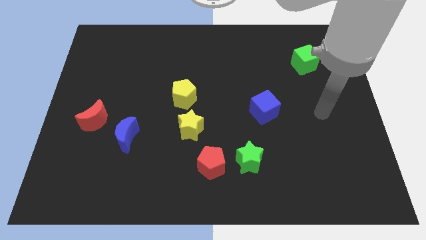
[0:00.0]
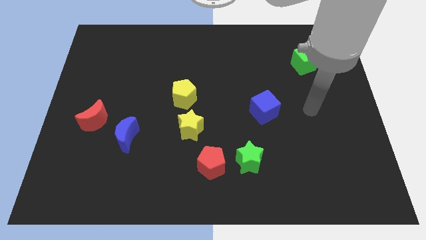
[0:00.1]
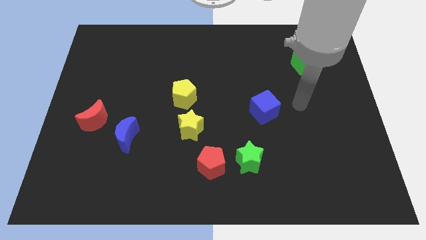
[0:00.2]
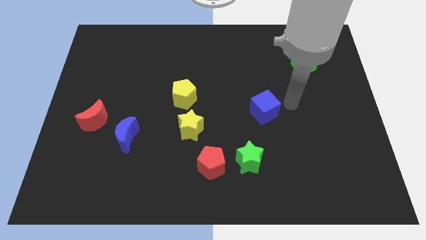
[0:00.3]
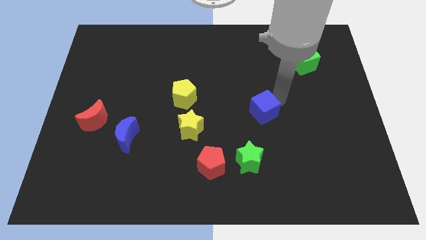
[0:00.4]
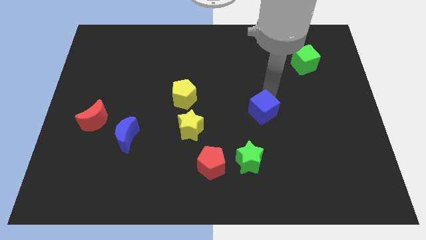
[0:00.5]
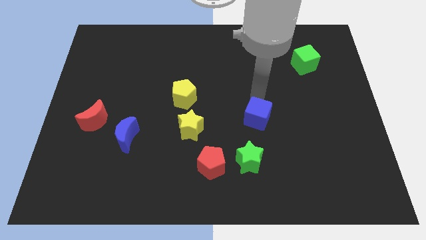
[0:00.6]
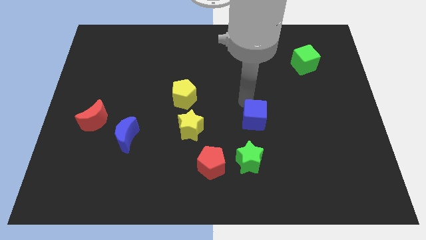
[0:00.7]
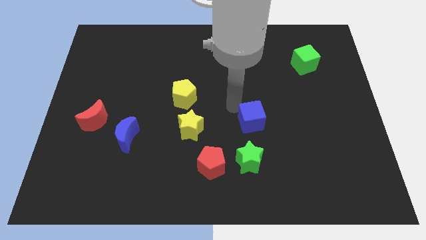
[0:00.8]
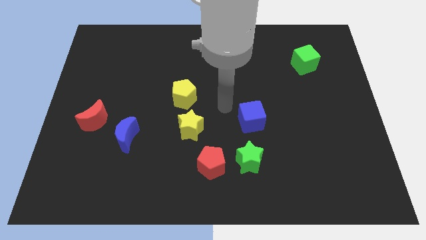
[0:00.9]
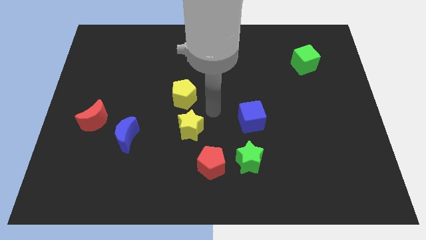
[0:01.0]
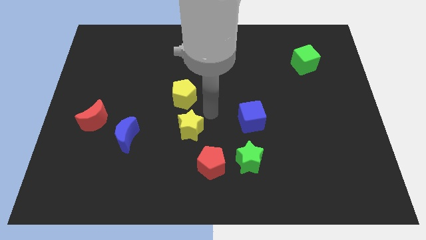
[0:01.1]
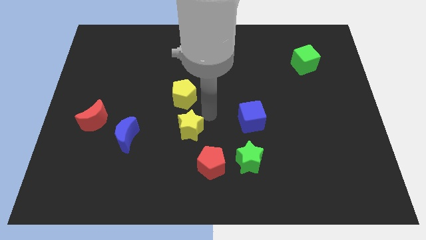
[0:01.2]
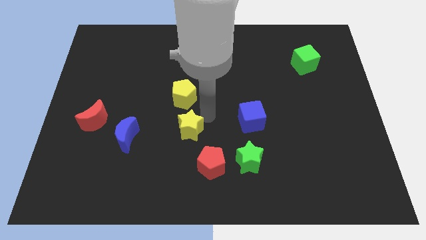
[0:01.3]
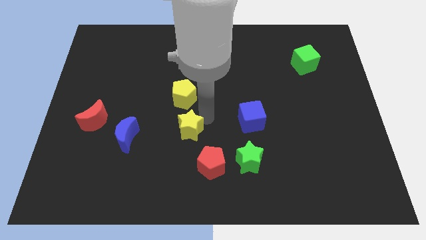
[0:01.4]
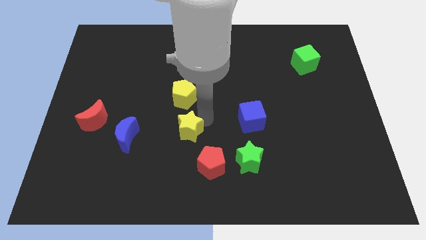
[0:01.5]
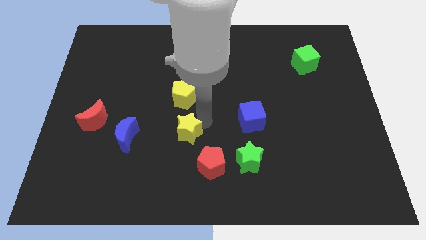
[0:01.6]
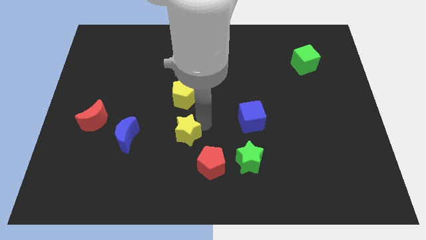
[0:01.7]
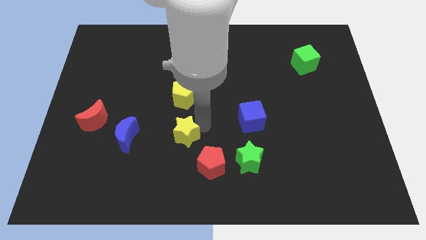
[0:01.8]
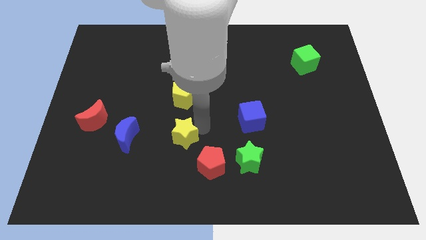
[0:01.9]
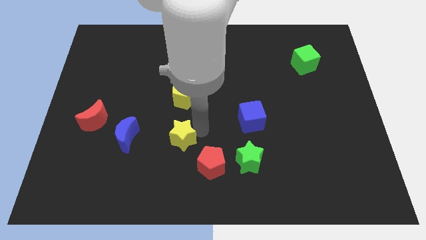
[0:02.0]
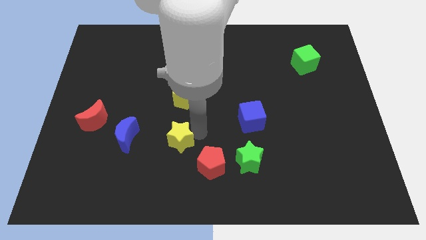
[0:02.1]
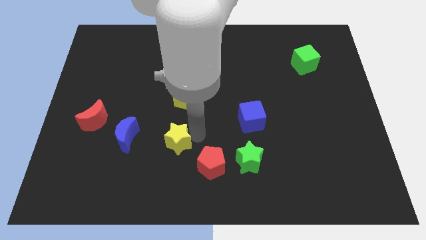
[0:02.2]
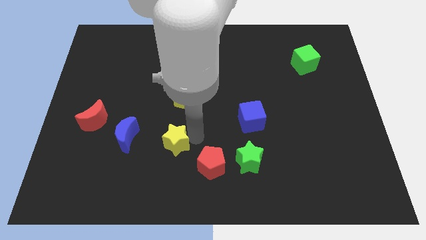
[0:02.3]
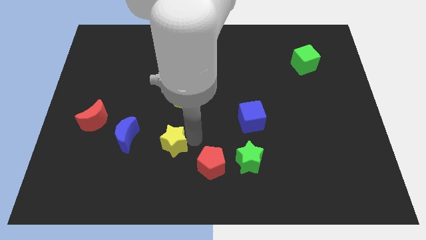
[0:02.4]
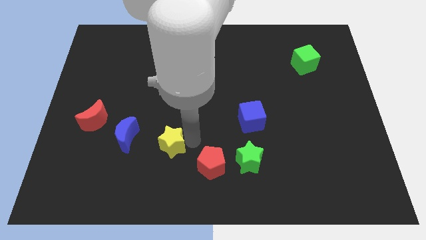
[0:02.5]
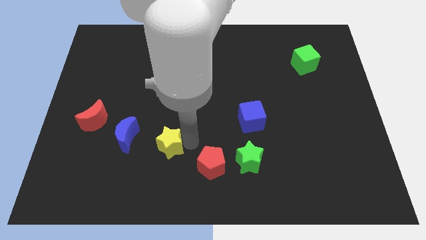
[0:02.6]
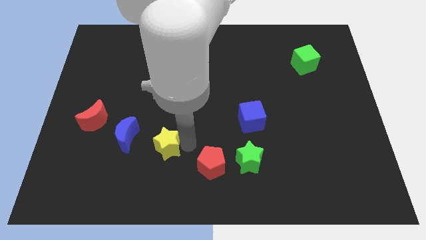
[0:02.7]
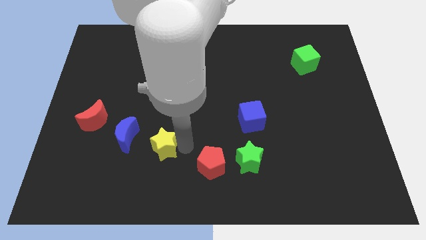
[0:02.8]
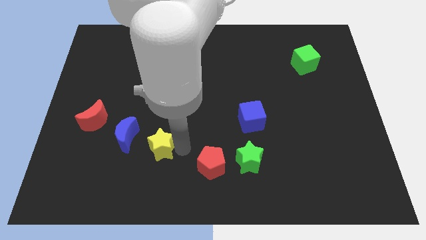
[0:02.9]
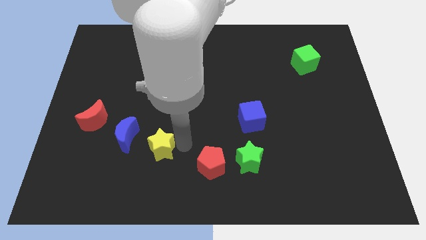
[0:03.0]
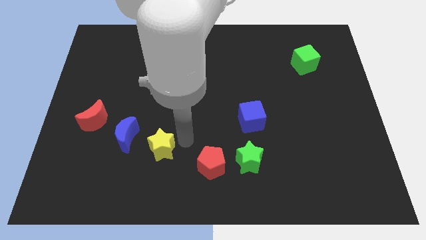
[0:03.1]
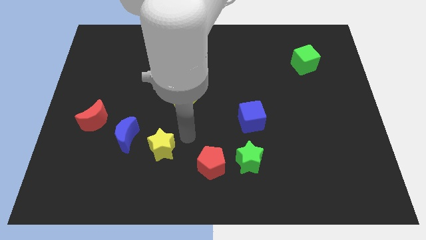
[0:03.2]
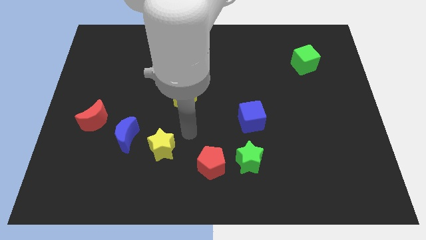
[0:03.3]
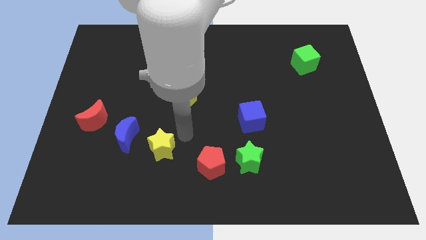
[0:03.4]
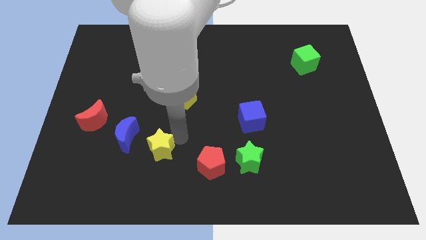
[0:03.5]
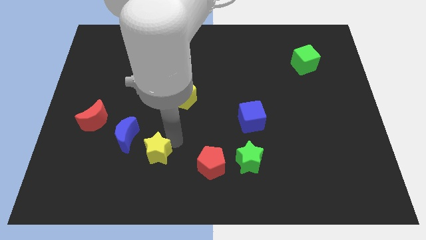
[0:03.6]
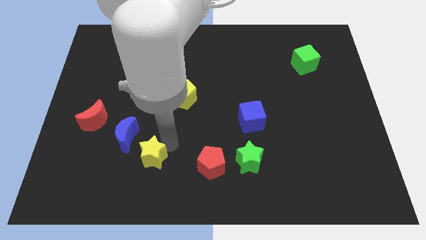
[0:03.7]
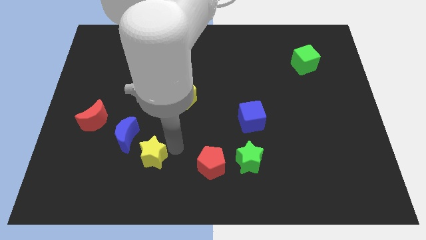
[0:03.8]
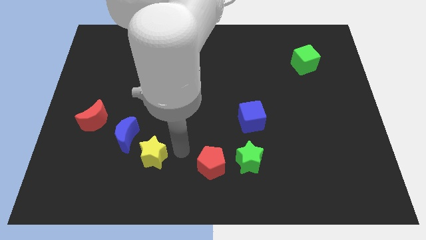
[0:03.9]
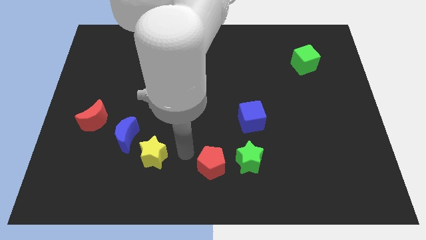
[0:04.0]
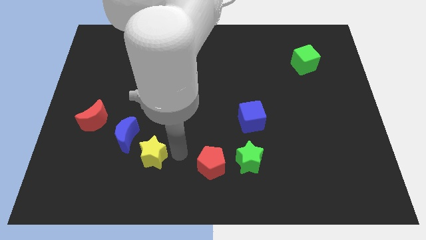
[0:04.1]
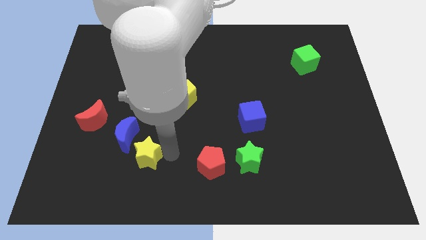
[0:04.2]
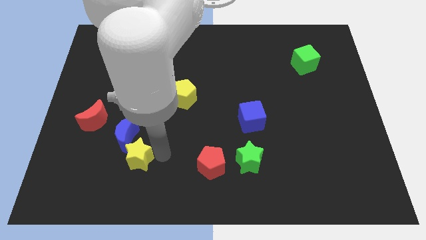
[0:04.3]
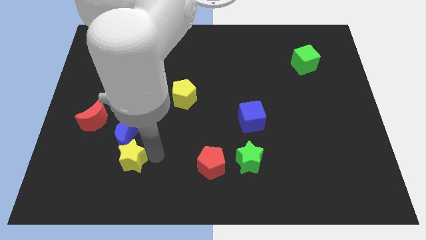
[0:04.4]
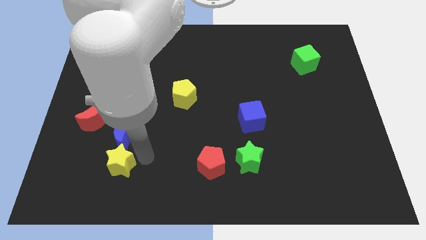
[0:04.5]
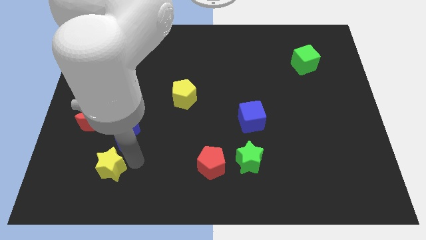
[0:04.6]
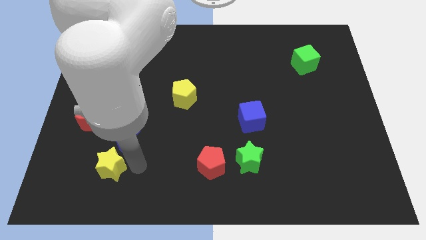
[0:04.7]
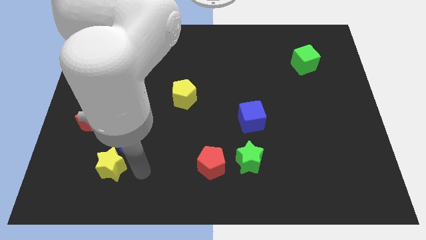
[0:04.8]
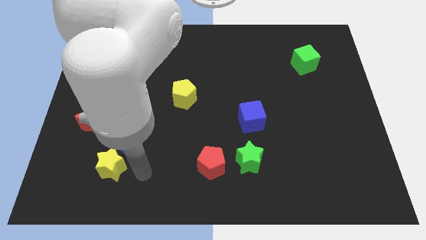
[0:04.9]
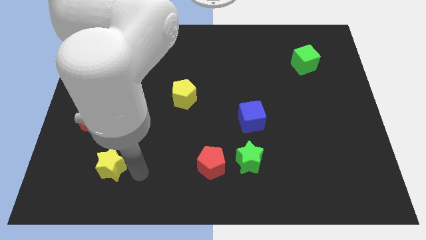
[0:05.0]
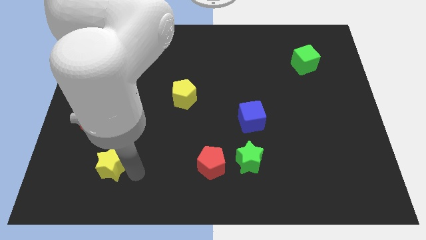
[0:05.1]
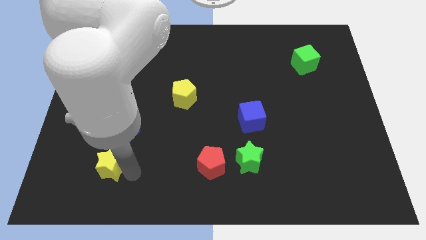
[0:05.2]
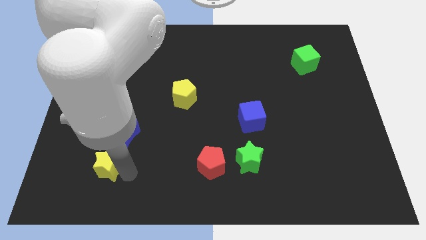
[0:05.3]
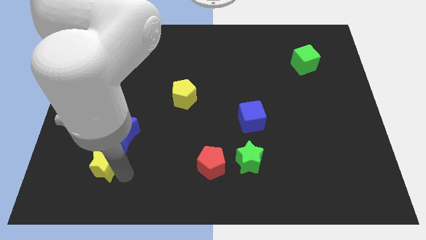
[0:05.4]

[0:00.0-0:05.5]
push the yellow star below the red moon

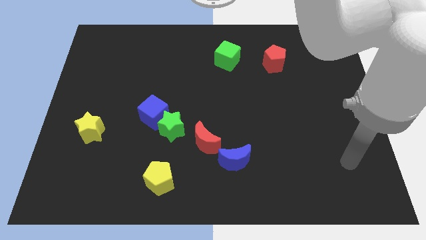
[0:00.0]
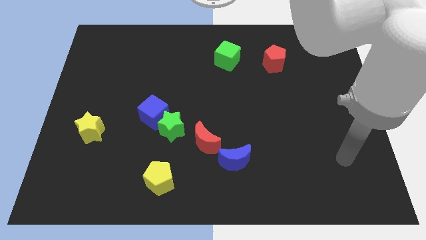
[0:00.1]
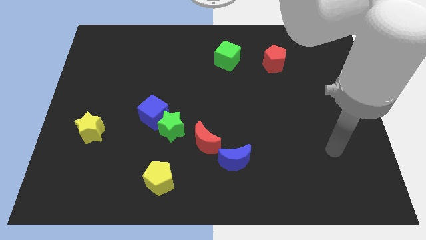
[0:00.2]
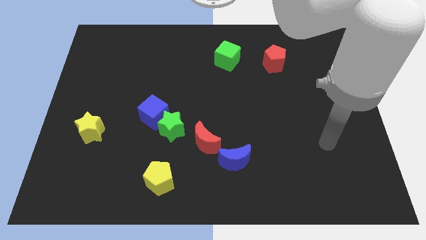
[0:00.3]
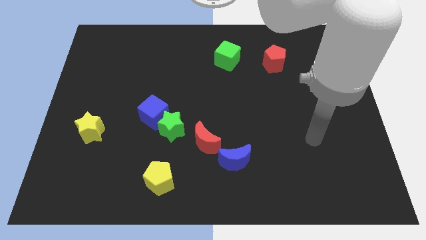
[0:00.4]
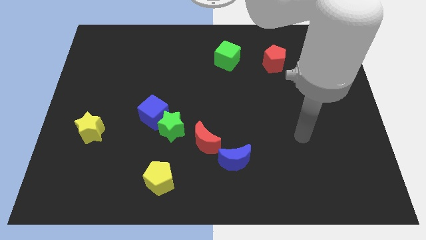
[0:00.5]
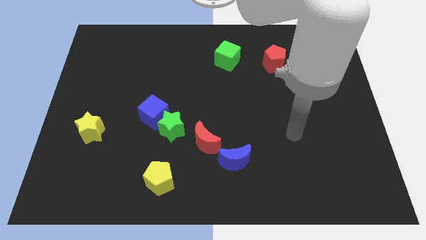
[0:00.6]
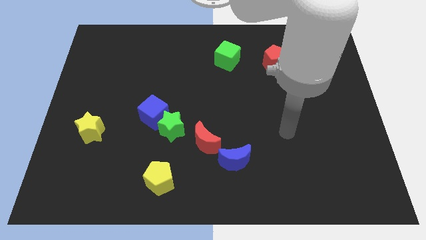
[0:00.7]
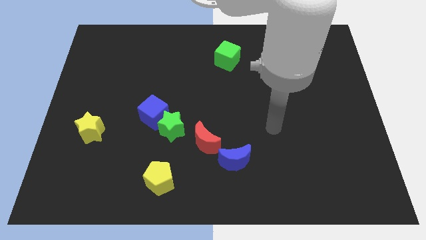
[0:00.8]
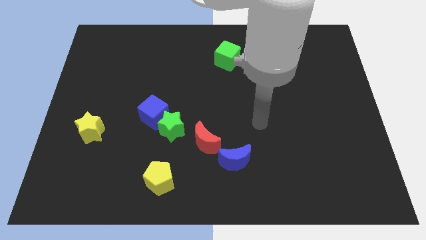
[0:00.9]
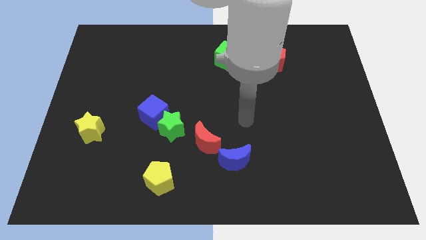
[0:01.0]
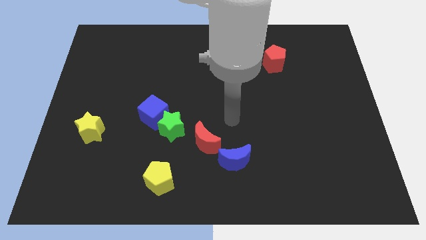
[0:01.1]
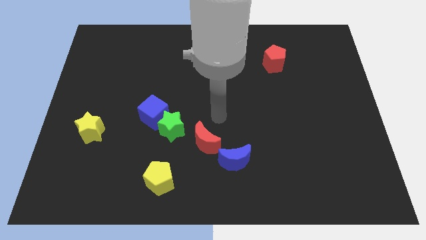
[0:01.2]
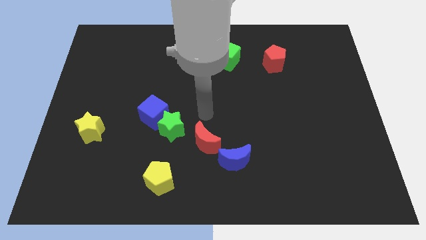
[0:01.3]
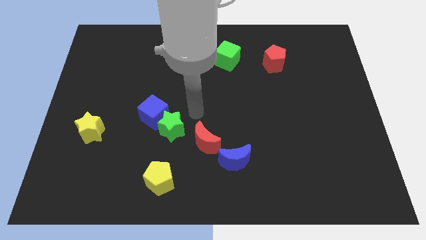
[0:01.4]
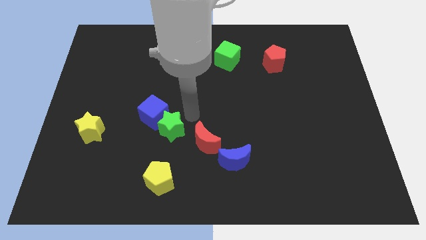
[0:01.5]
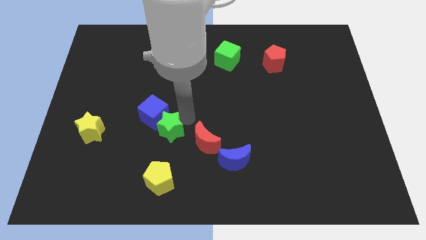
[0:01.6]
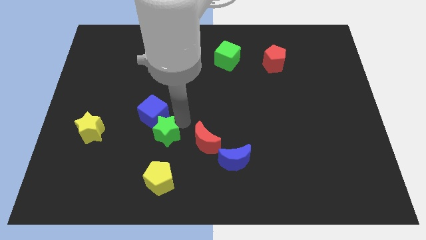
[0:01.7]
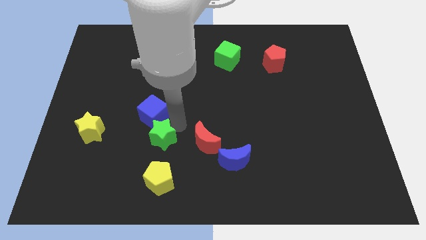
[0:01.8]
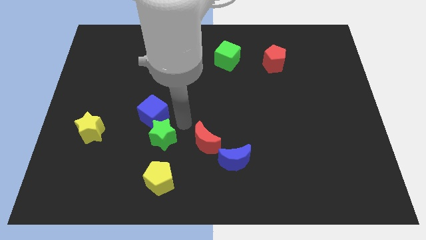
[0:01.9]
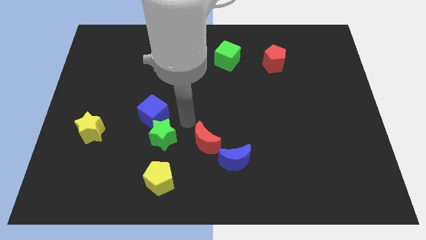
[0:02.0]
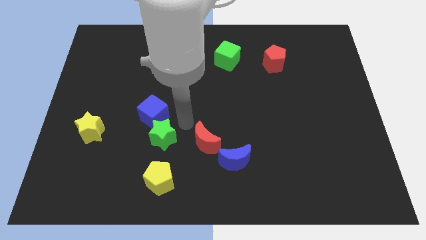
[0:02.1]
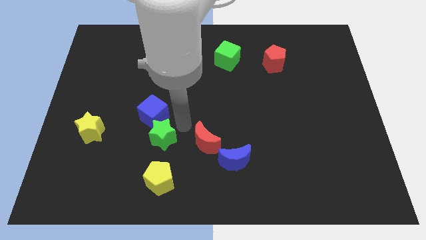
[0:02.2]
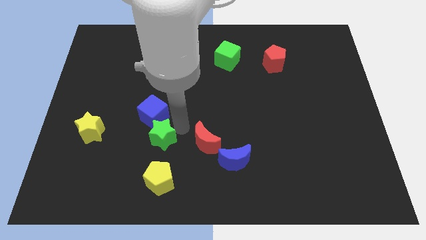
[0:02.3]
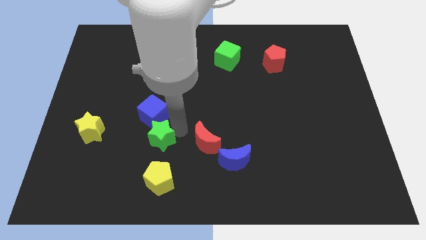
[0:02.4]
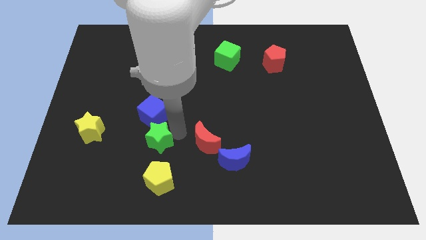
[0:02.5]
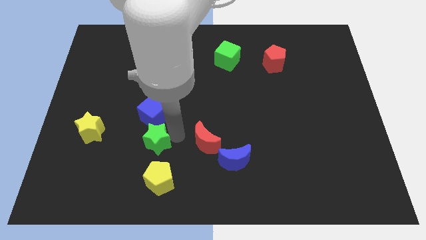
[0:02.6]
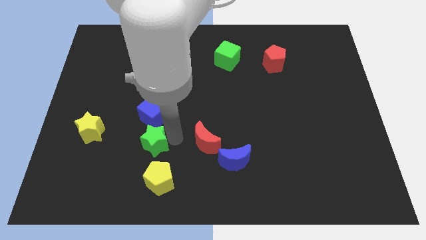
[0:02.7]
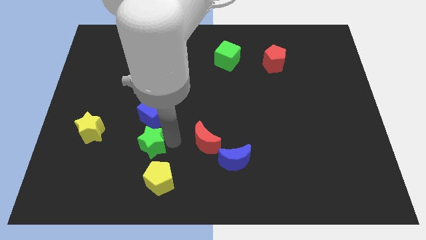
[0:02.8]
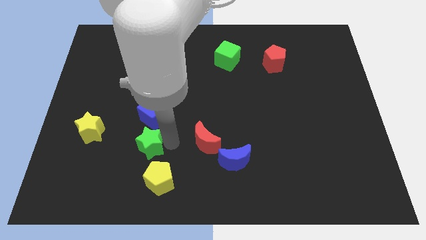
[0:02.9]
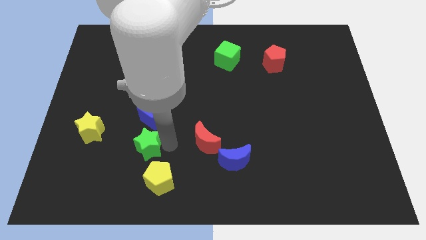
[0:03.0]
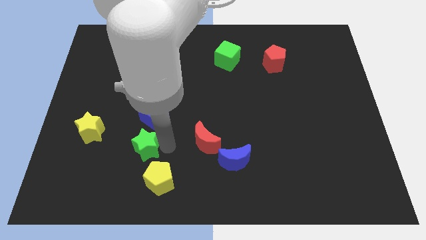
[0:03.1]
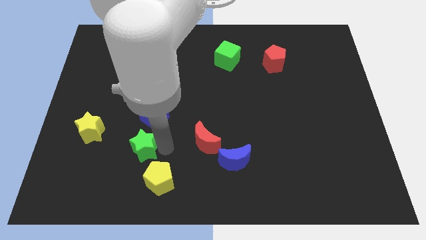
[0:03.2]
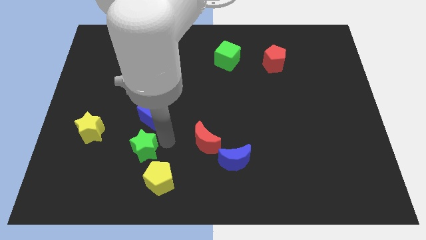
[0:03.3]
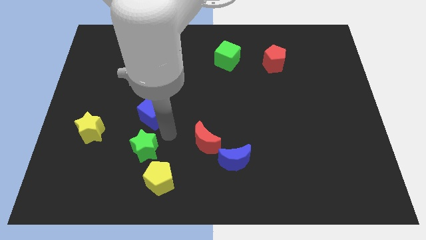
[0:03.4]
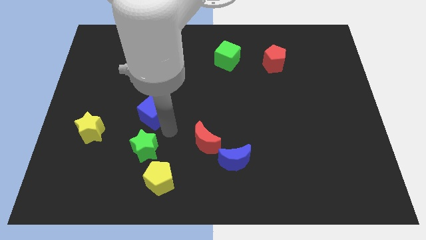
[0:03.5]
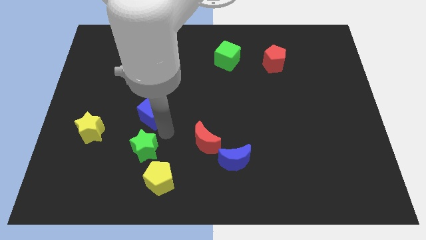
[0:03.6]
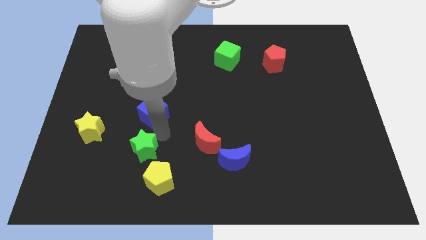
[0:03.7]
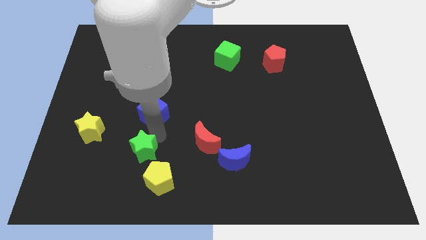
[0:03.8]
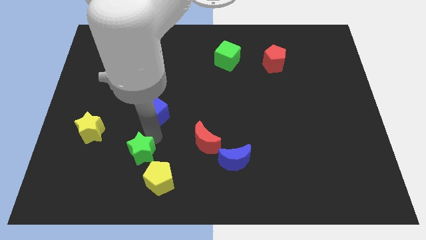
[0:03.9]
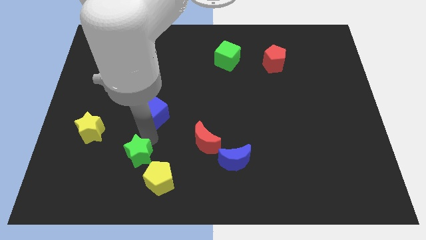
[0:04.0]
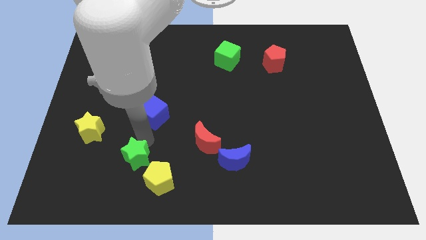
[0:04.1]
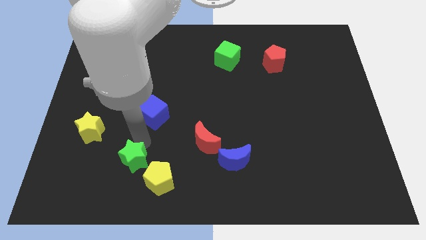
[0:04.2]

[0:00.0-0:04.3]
push the green star to the left of the yellow pentagon
